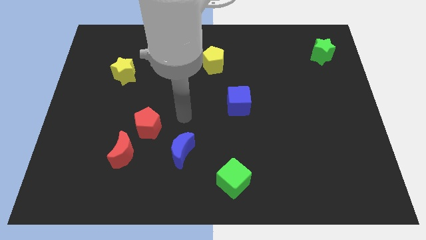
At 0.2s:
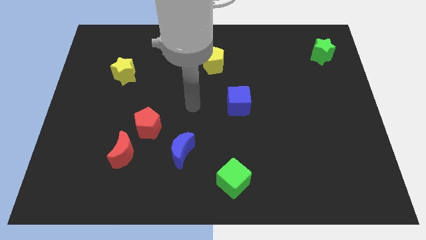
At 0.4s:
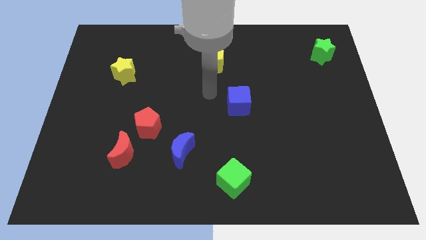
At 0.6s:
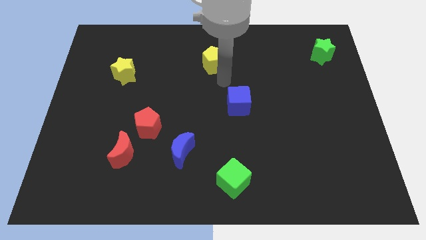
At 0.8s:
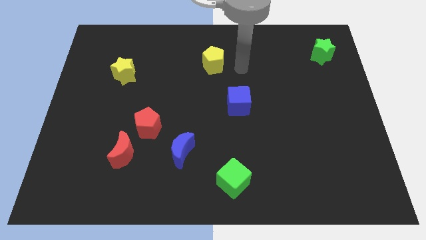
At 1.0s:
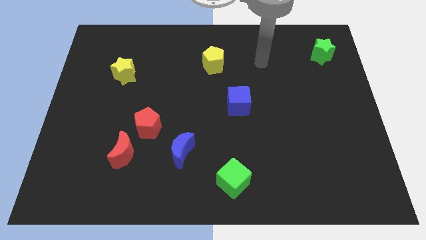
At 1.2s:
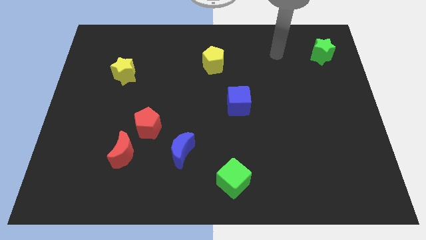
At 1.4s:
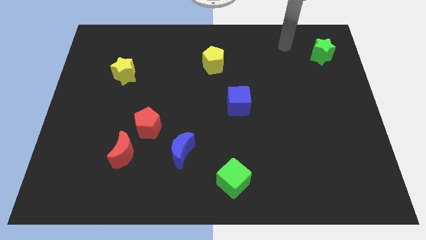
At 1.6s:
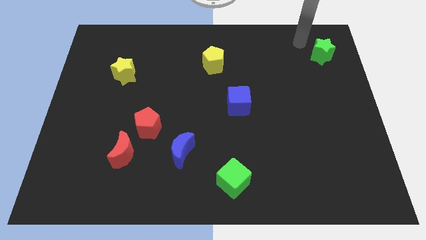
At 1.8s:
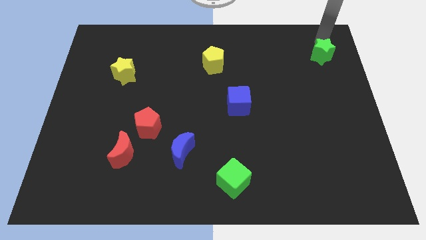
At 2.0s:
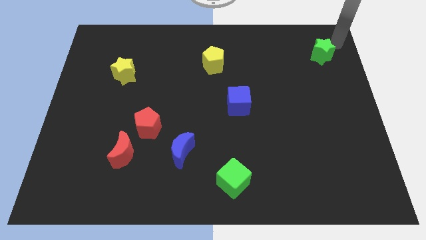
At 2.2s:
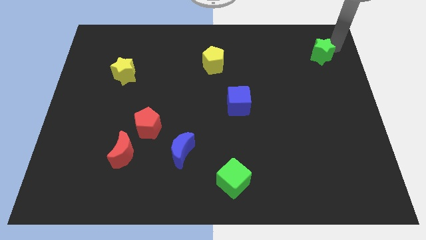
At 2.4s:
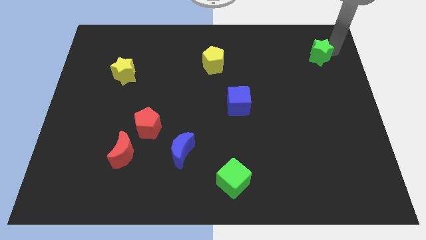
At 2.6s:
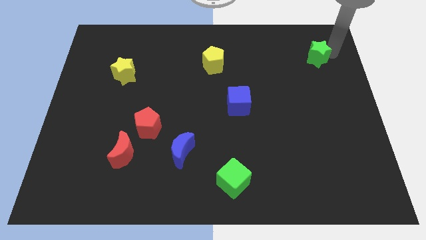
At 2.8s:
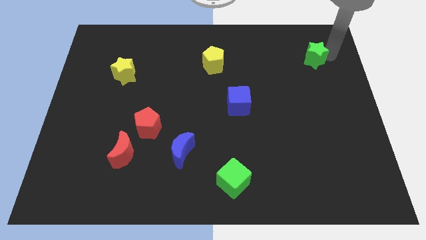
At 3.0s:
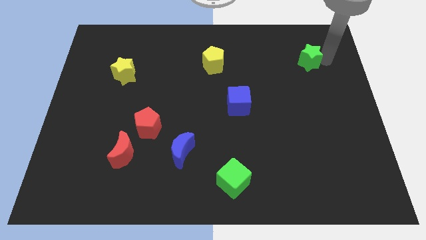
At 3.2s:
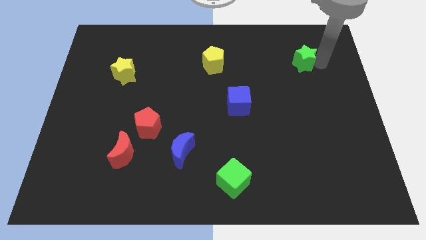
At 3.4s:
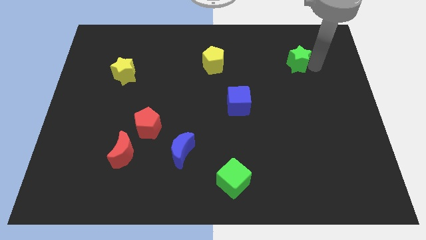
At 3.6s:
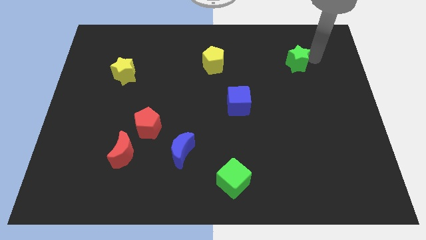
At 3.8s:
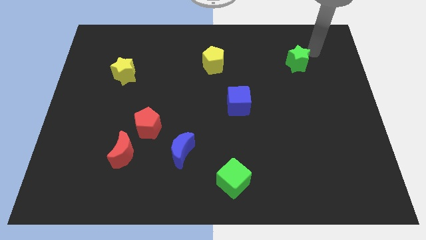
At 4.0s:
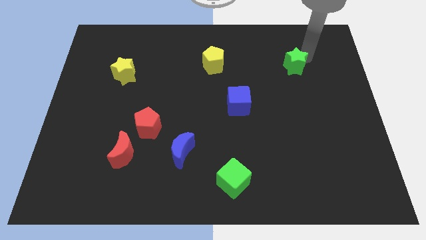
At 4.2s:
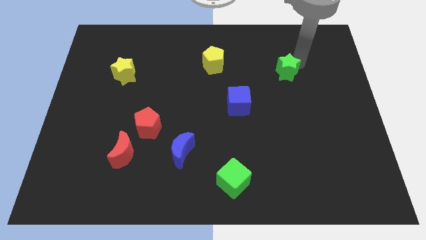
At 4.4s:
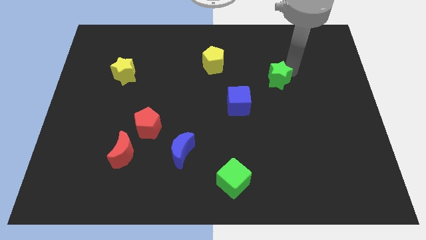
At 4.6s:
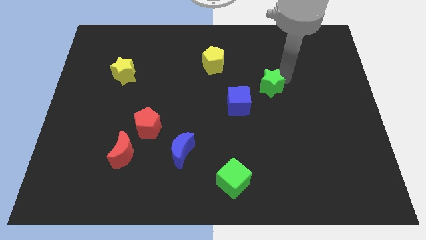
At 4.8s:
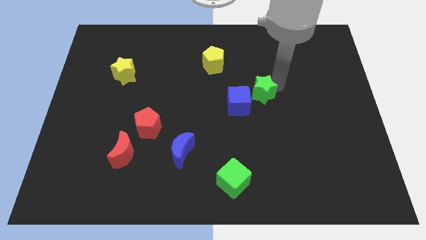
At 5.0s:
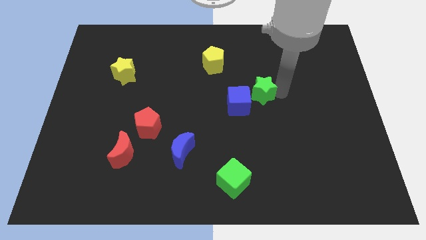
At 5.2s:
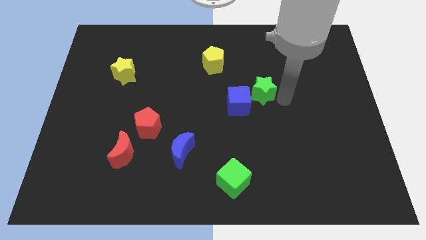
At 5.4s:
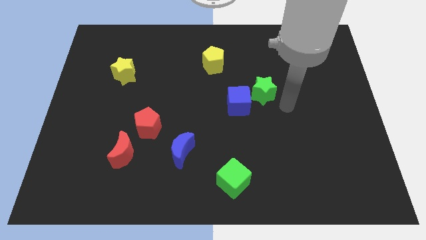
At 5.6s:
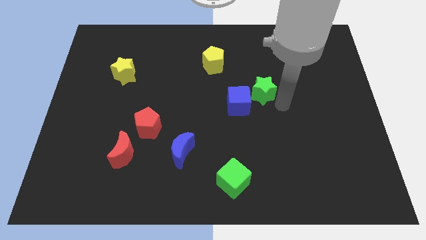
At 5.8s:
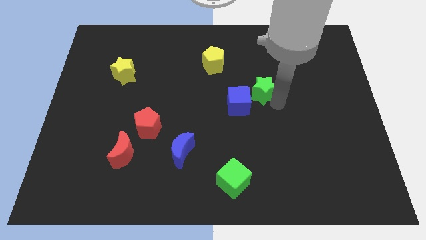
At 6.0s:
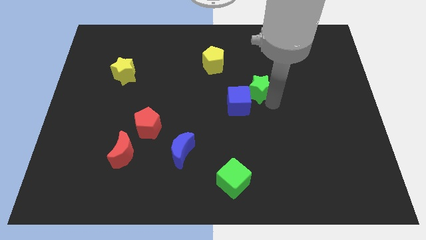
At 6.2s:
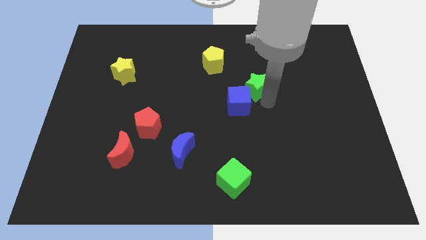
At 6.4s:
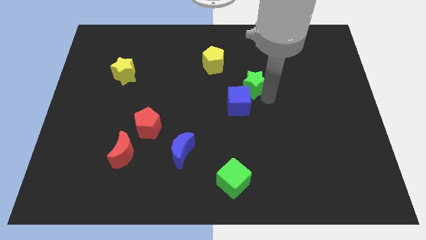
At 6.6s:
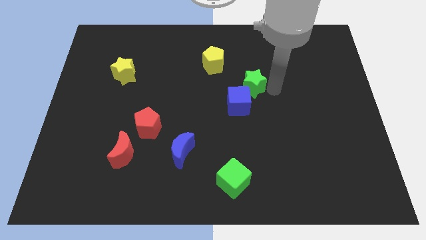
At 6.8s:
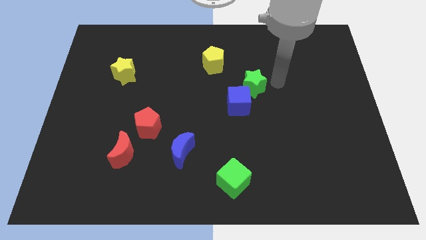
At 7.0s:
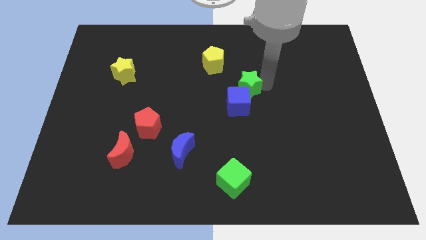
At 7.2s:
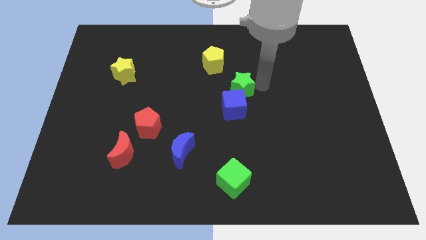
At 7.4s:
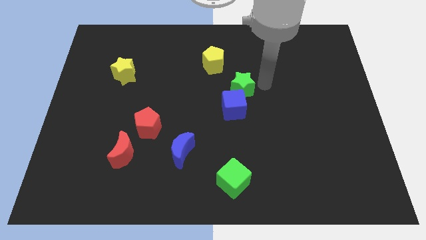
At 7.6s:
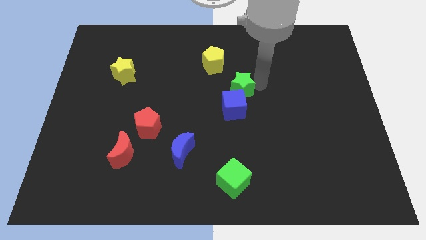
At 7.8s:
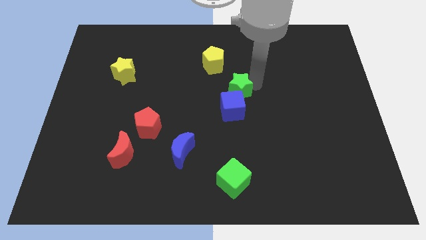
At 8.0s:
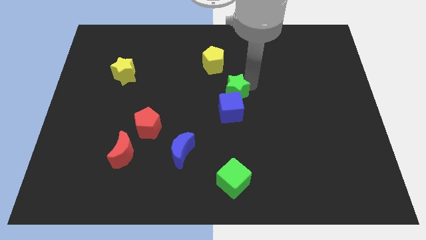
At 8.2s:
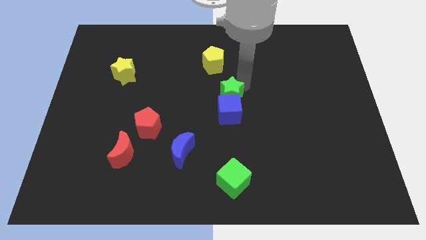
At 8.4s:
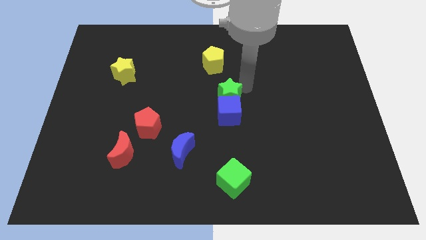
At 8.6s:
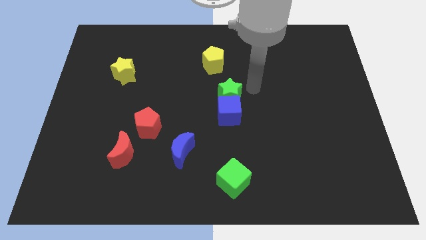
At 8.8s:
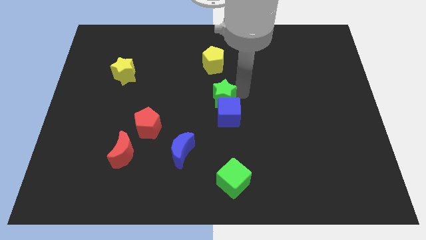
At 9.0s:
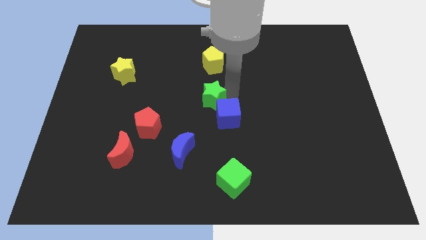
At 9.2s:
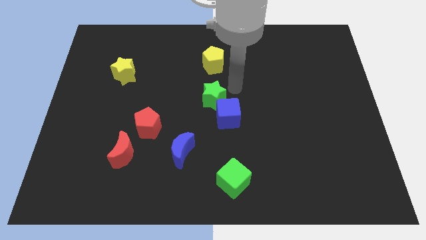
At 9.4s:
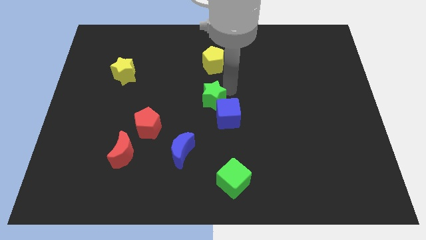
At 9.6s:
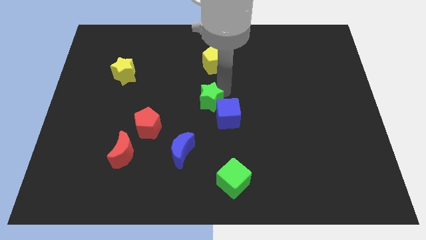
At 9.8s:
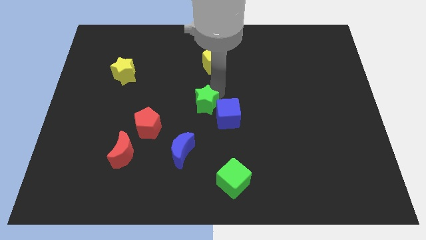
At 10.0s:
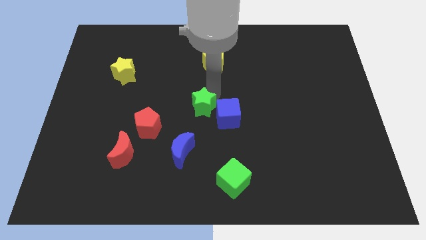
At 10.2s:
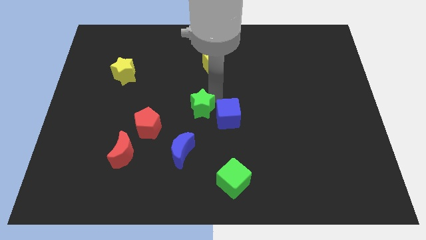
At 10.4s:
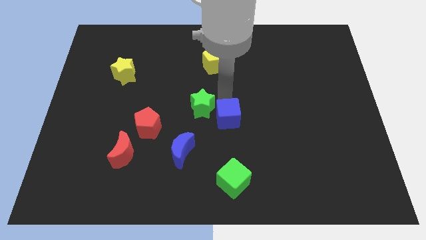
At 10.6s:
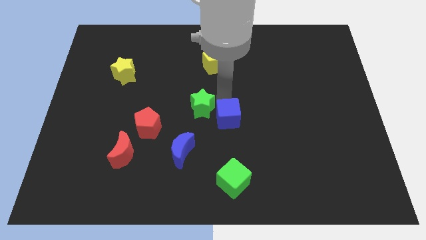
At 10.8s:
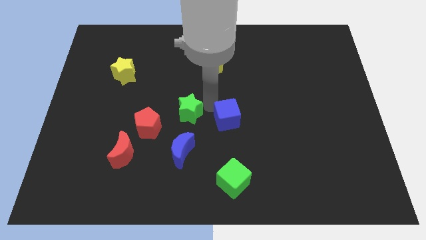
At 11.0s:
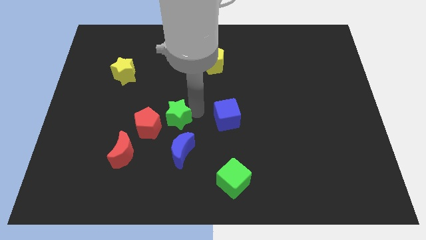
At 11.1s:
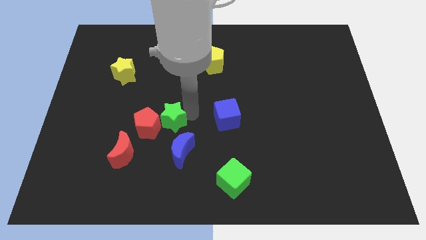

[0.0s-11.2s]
move the green star towards the red pentagon

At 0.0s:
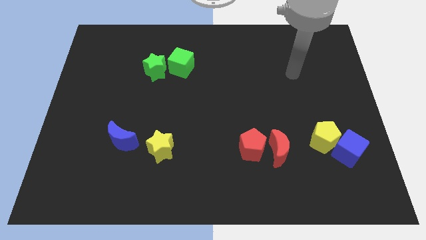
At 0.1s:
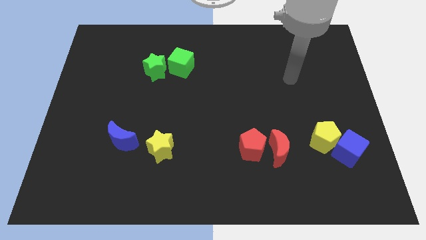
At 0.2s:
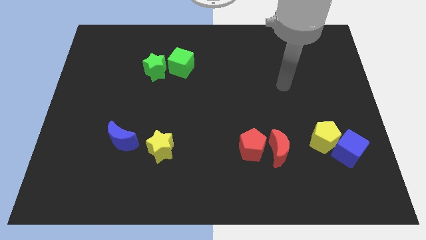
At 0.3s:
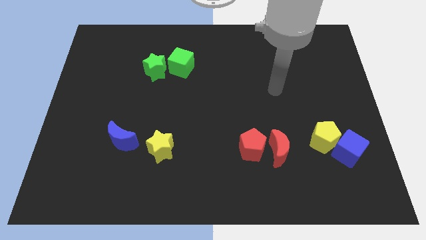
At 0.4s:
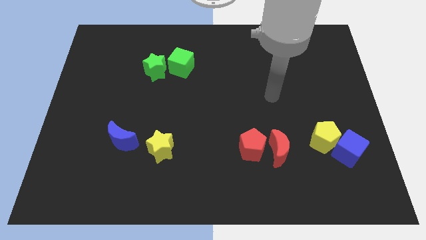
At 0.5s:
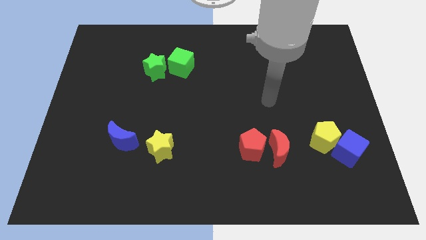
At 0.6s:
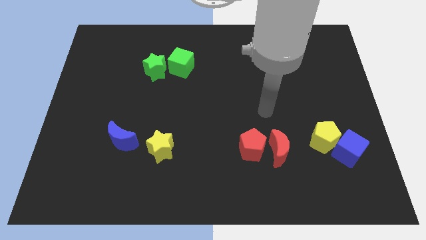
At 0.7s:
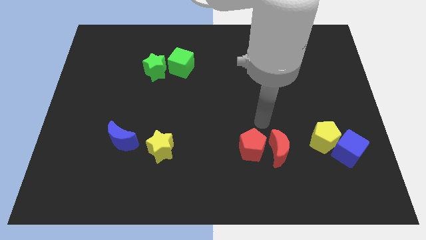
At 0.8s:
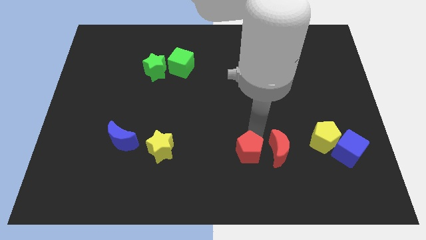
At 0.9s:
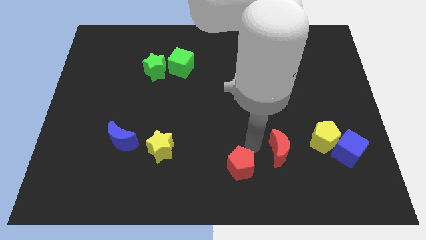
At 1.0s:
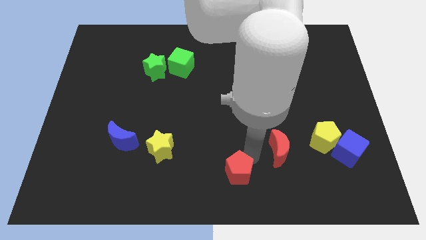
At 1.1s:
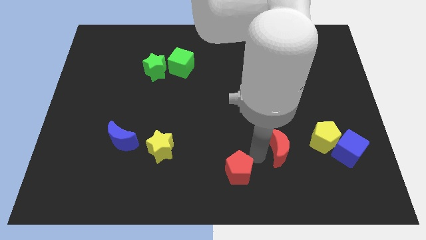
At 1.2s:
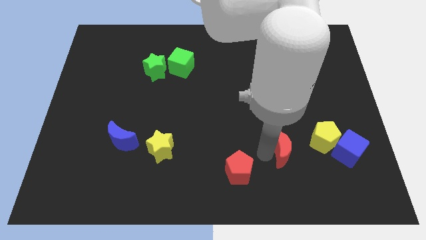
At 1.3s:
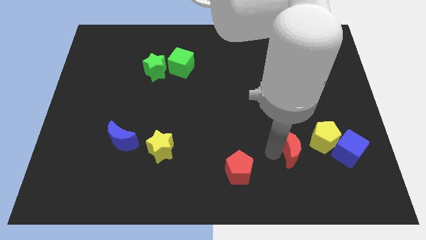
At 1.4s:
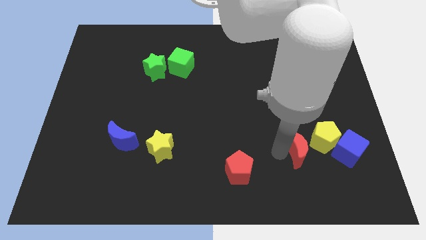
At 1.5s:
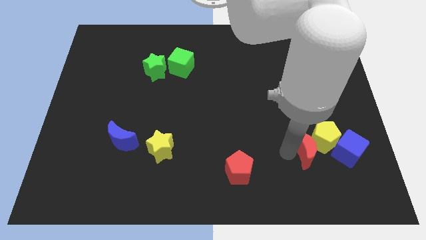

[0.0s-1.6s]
push the red moon to the yellow pentagon

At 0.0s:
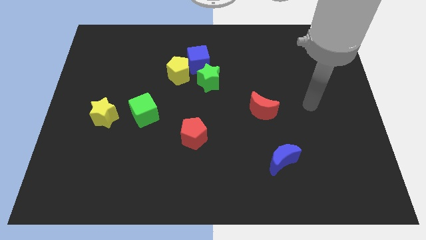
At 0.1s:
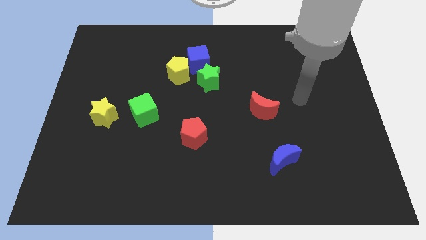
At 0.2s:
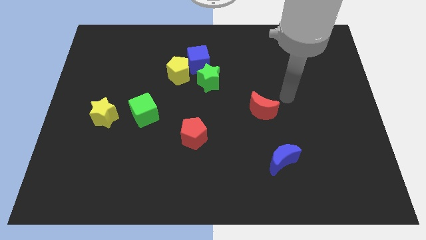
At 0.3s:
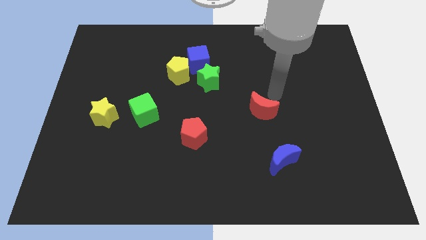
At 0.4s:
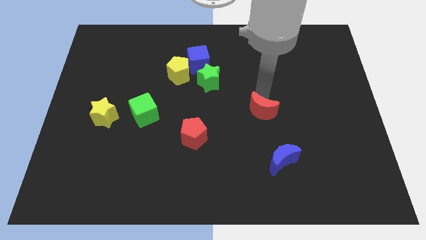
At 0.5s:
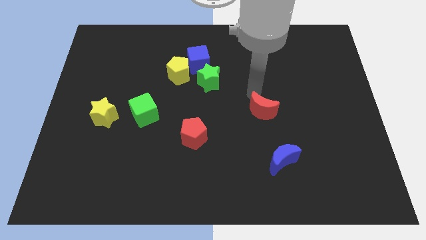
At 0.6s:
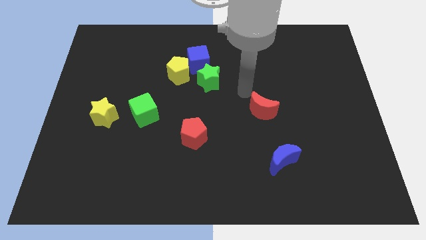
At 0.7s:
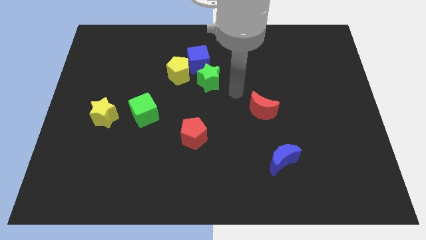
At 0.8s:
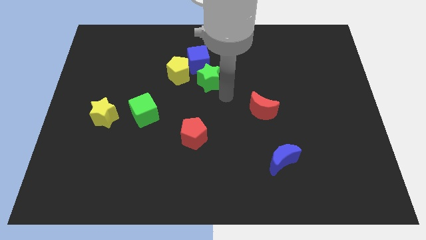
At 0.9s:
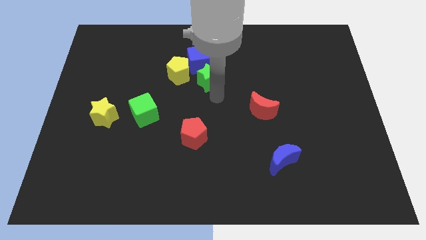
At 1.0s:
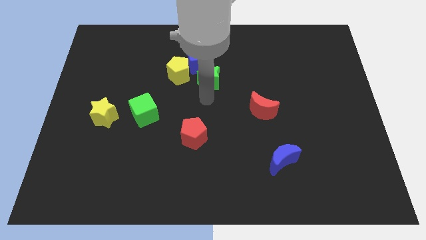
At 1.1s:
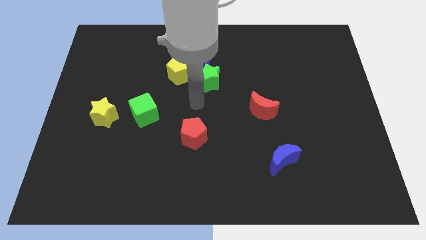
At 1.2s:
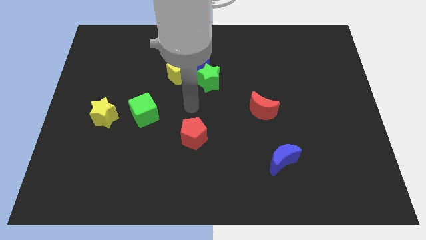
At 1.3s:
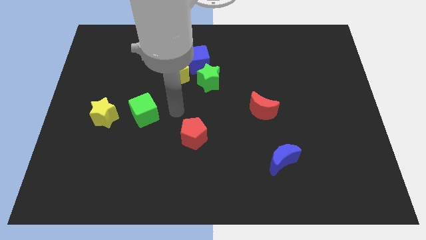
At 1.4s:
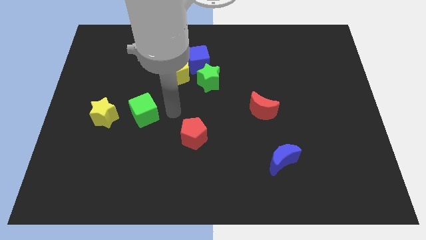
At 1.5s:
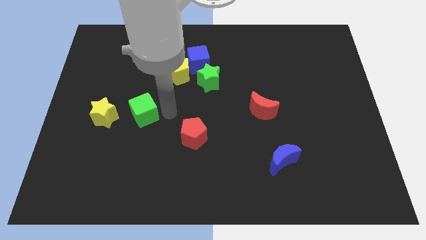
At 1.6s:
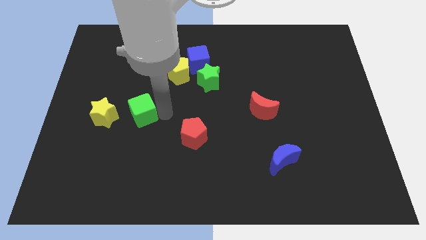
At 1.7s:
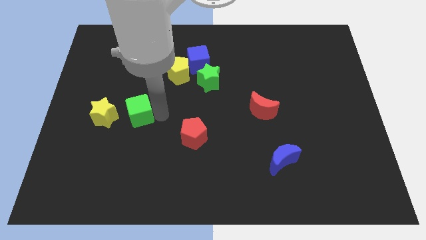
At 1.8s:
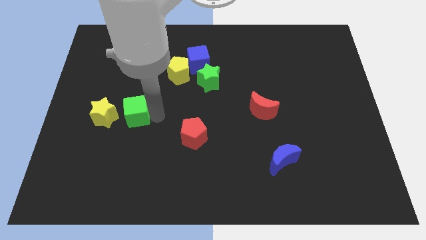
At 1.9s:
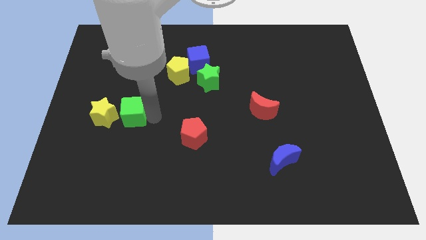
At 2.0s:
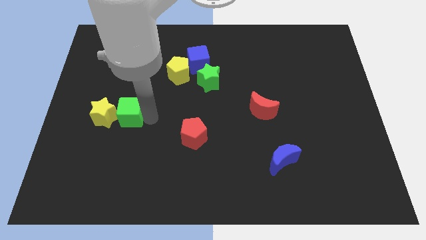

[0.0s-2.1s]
move the green cube close to the yellow star
